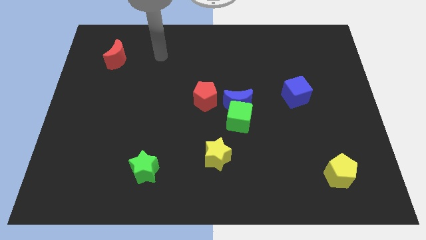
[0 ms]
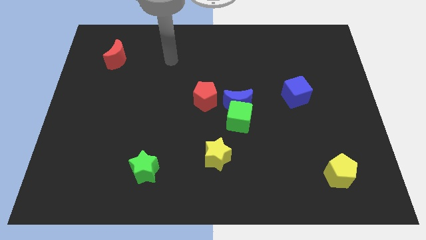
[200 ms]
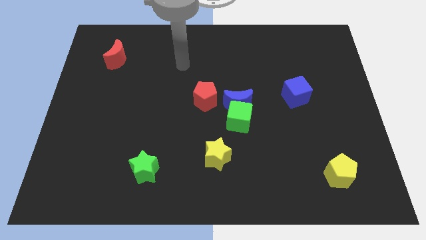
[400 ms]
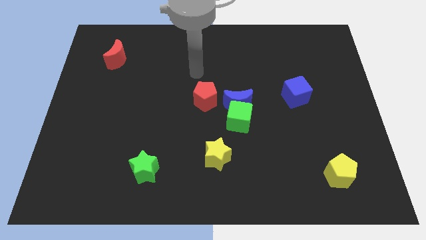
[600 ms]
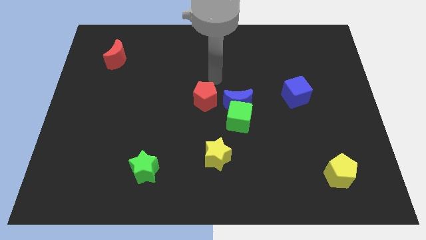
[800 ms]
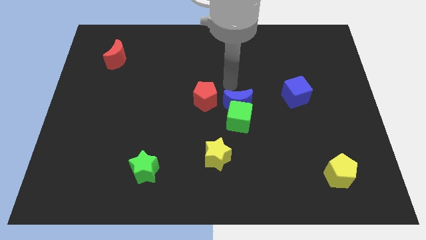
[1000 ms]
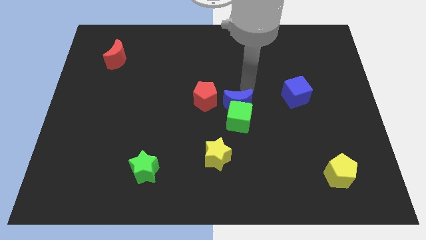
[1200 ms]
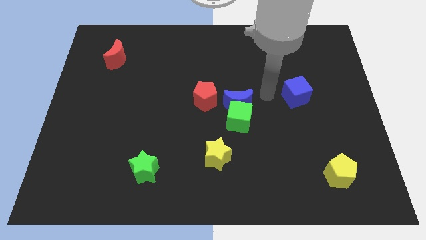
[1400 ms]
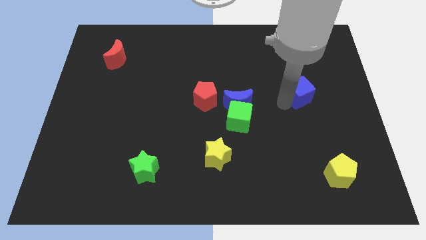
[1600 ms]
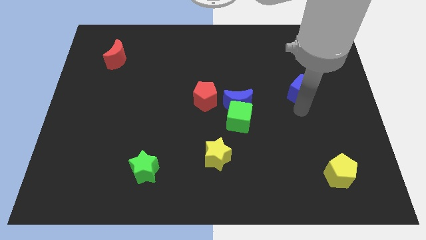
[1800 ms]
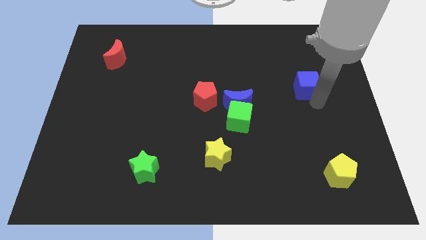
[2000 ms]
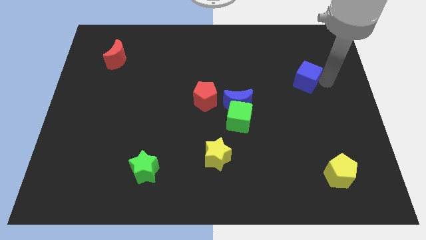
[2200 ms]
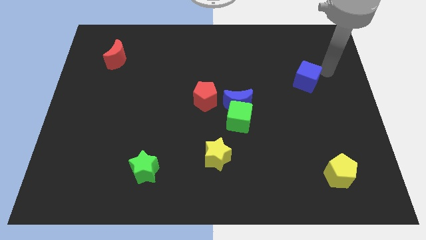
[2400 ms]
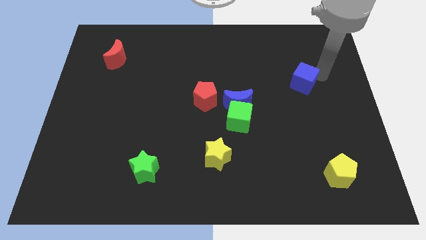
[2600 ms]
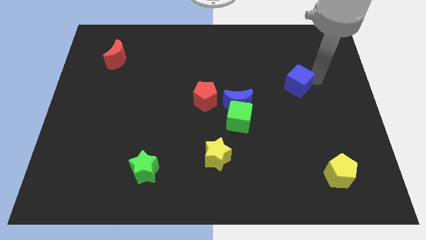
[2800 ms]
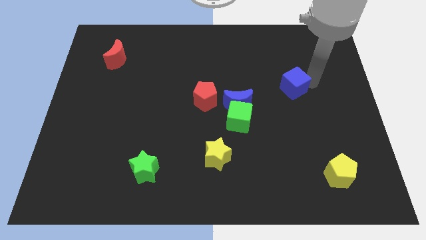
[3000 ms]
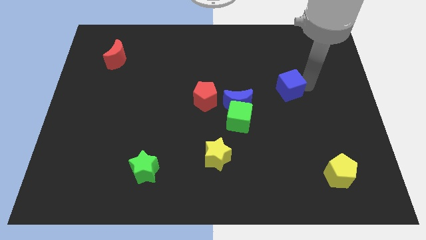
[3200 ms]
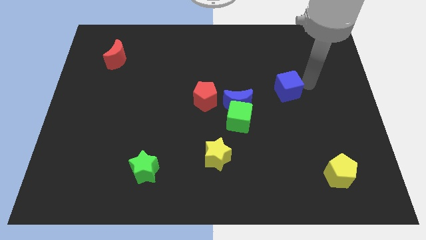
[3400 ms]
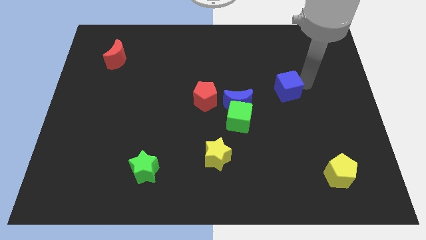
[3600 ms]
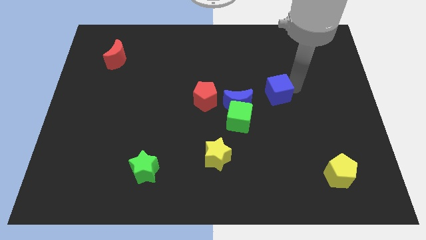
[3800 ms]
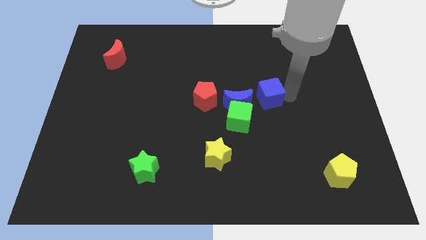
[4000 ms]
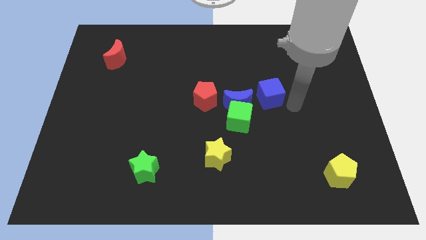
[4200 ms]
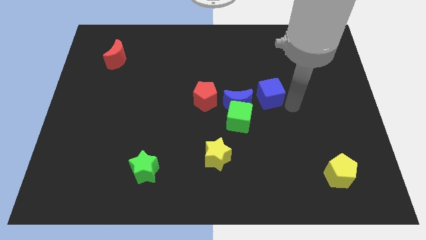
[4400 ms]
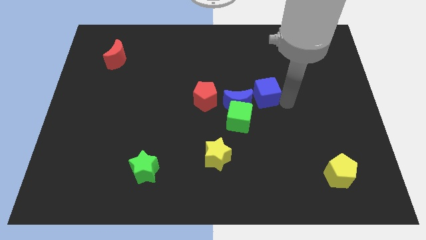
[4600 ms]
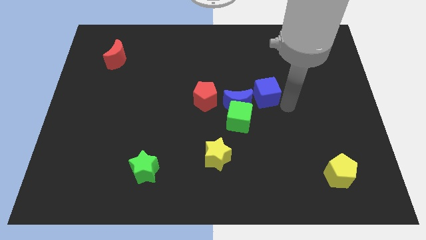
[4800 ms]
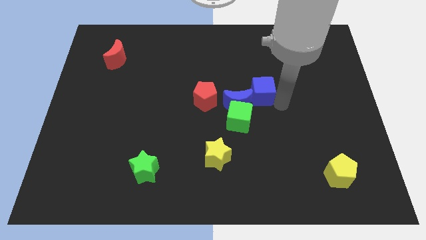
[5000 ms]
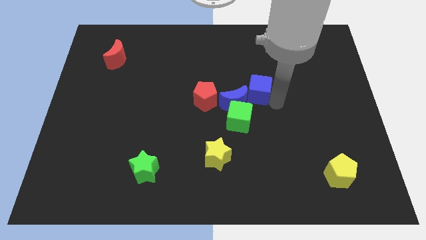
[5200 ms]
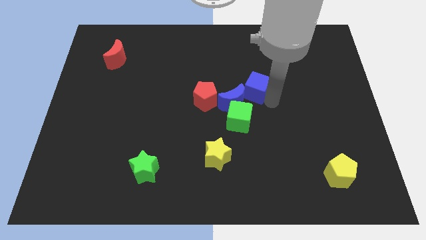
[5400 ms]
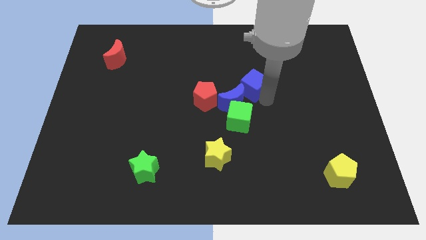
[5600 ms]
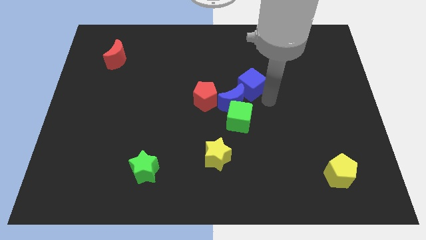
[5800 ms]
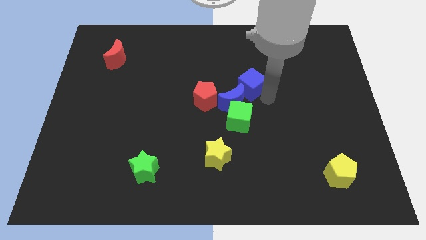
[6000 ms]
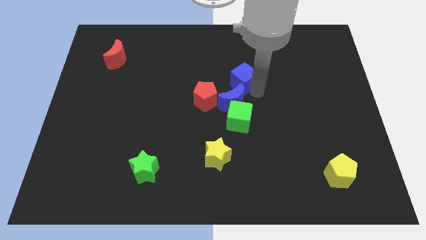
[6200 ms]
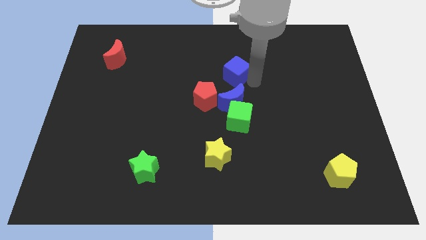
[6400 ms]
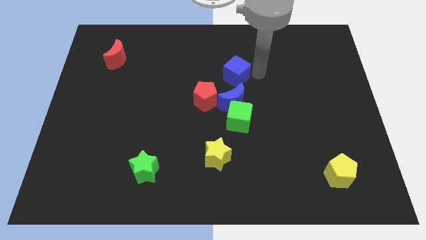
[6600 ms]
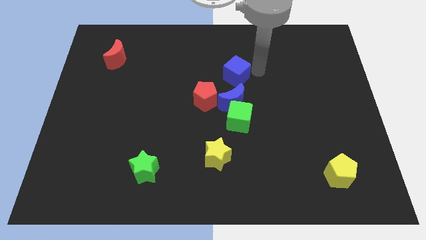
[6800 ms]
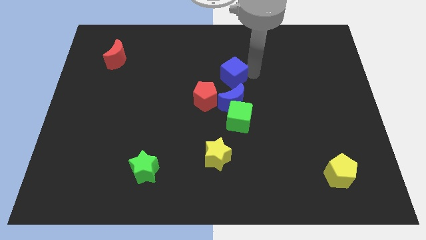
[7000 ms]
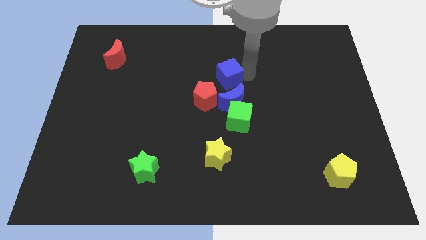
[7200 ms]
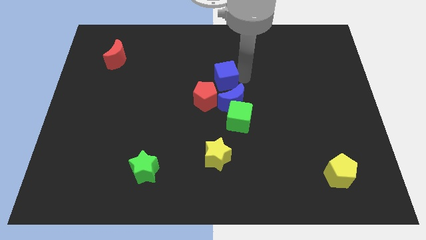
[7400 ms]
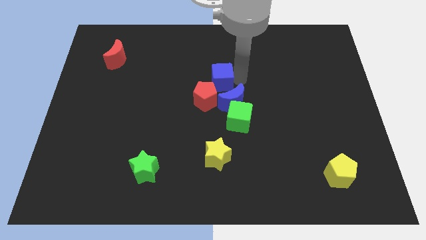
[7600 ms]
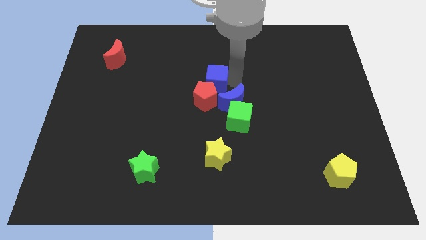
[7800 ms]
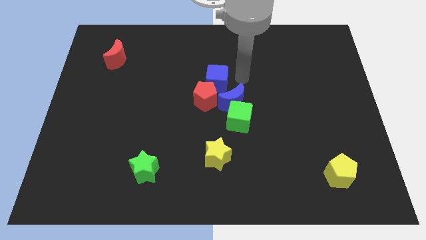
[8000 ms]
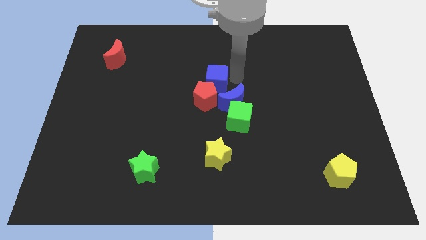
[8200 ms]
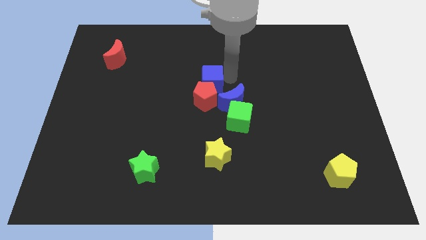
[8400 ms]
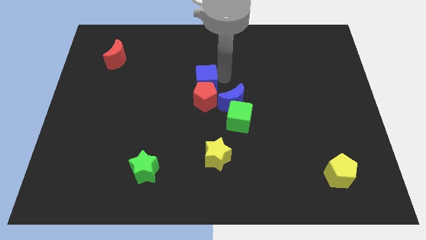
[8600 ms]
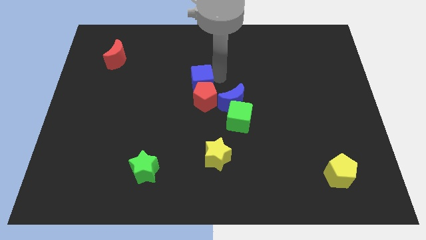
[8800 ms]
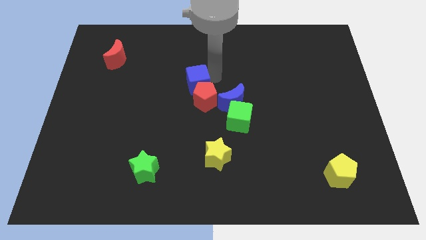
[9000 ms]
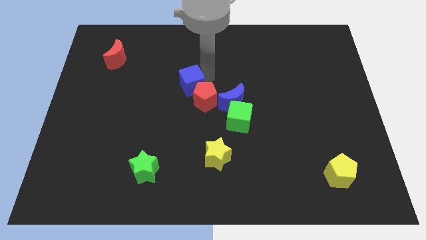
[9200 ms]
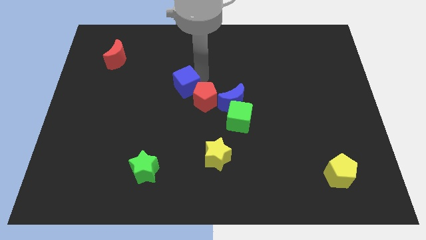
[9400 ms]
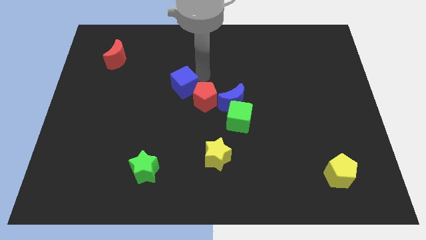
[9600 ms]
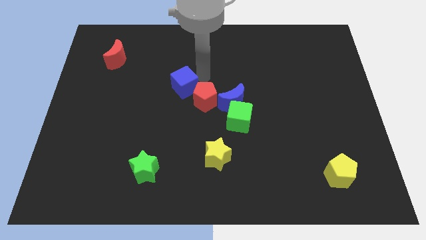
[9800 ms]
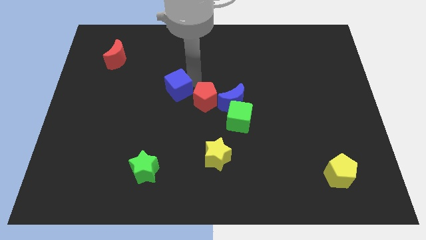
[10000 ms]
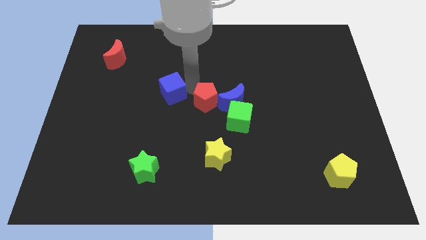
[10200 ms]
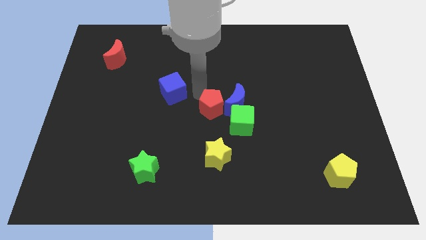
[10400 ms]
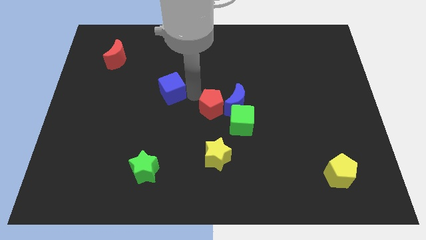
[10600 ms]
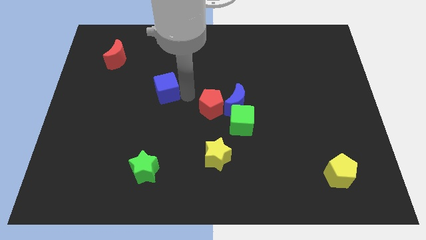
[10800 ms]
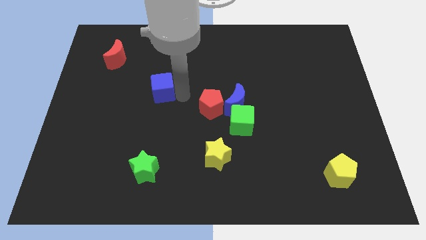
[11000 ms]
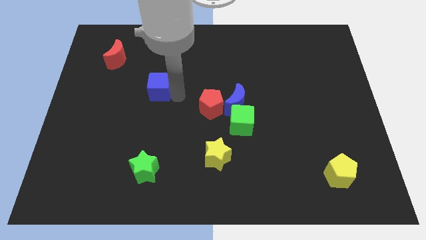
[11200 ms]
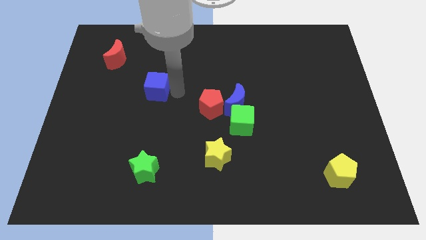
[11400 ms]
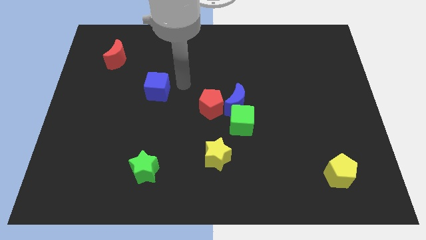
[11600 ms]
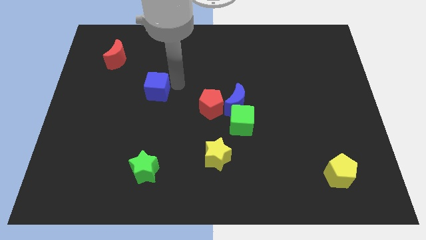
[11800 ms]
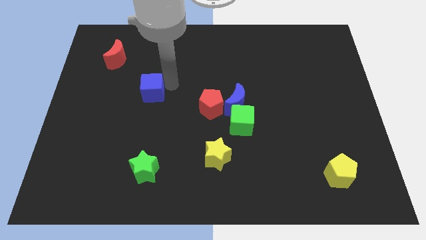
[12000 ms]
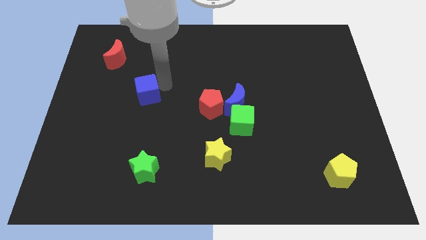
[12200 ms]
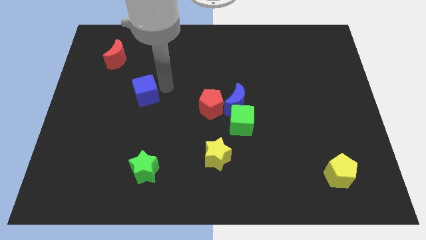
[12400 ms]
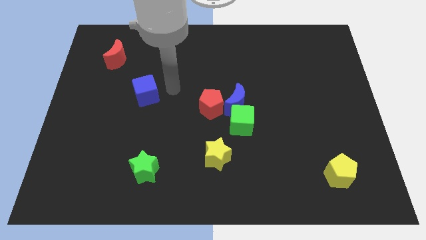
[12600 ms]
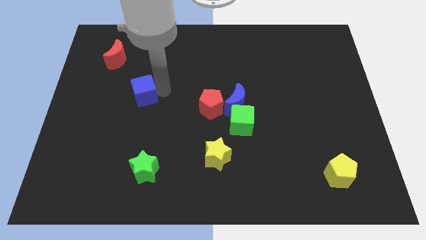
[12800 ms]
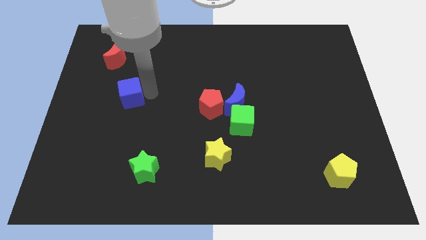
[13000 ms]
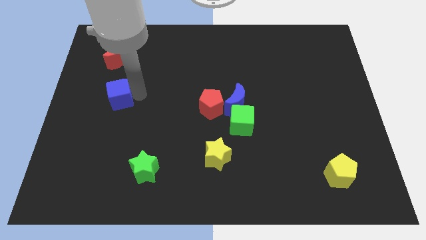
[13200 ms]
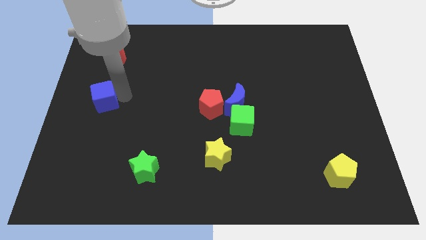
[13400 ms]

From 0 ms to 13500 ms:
slide the blue cube to the center left
